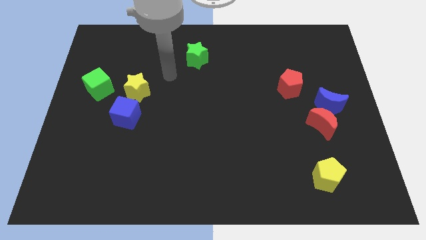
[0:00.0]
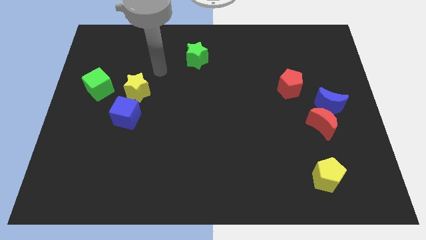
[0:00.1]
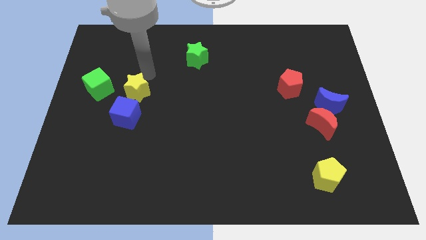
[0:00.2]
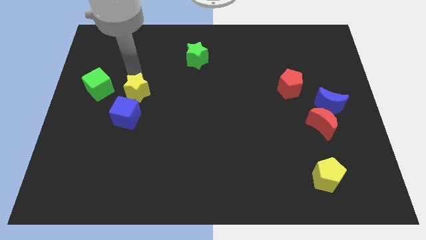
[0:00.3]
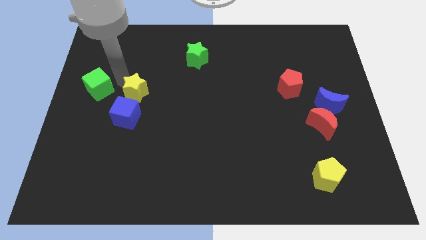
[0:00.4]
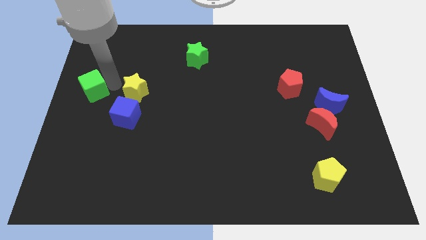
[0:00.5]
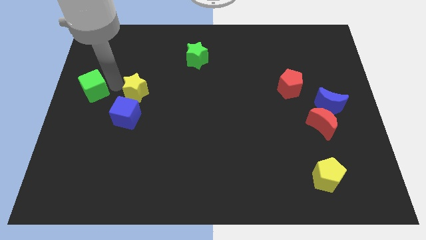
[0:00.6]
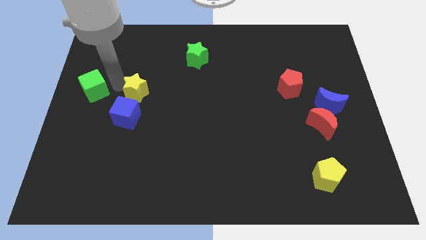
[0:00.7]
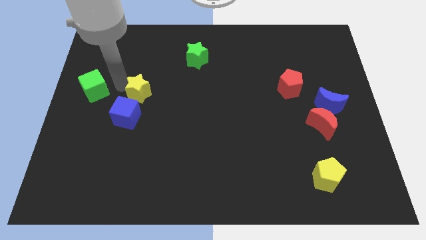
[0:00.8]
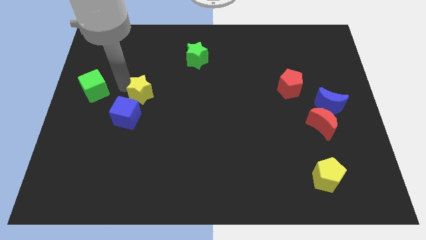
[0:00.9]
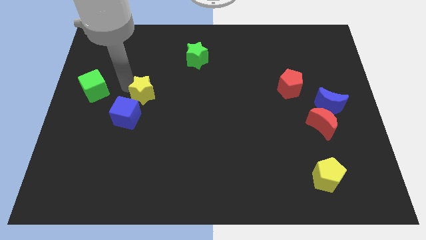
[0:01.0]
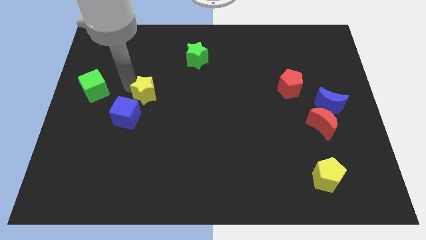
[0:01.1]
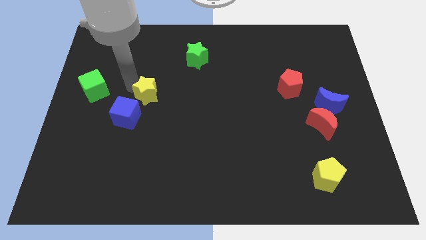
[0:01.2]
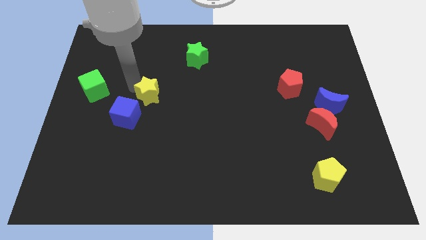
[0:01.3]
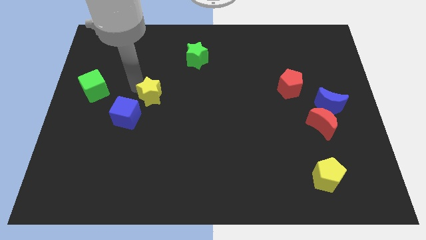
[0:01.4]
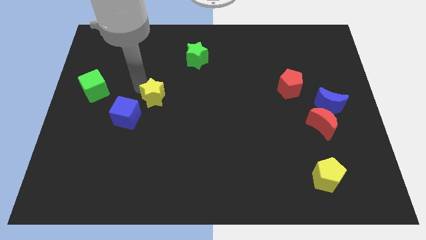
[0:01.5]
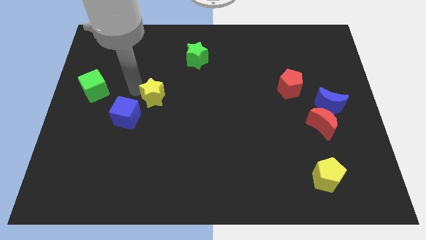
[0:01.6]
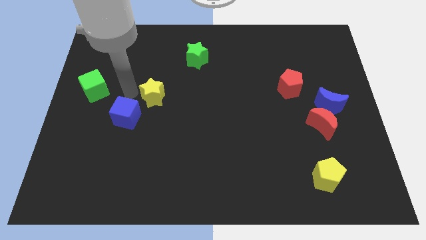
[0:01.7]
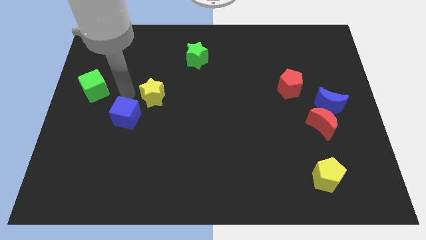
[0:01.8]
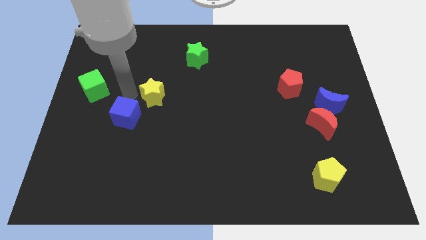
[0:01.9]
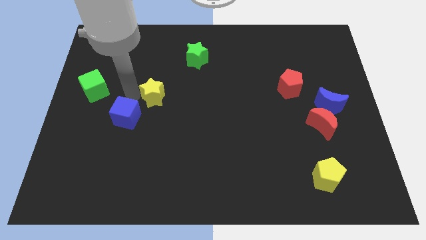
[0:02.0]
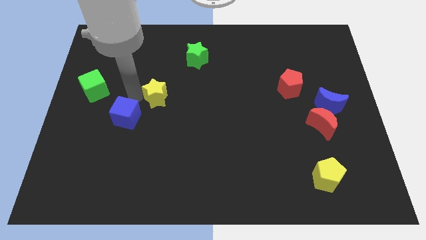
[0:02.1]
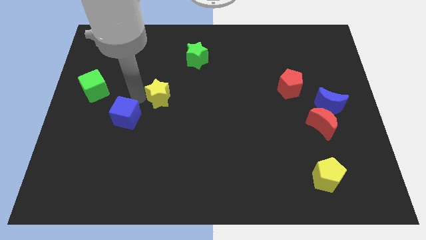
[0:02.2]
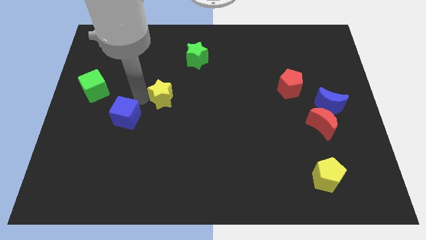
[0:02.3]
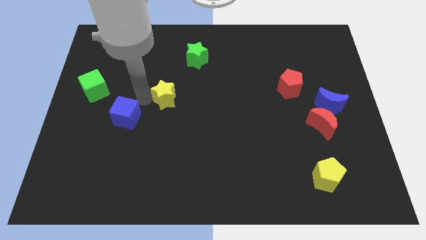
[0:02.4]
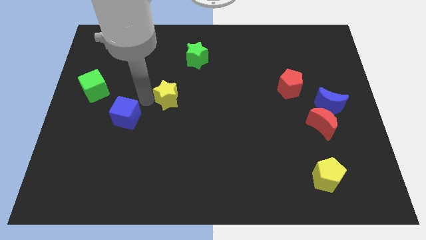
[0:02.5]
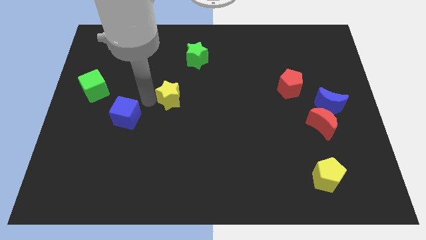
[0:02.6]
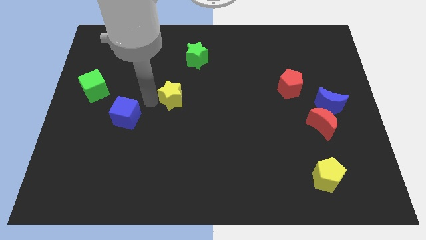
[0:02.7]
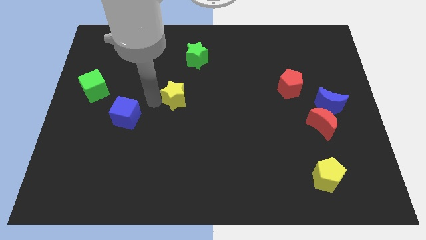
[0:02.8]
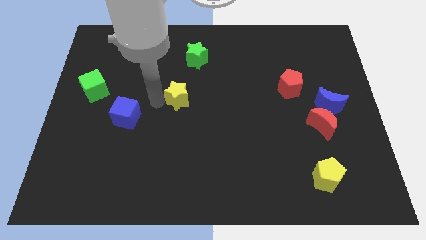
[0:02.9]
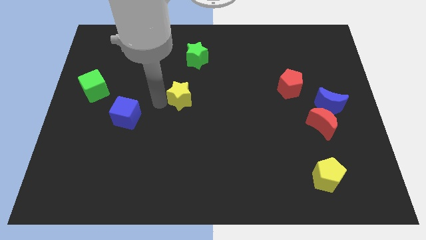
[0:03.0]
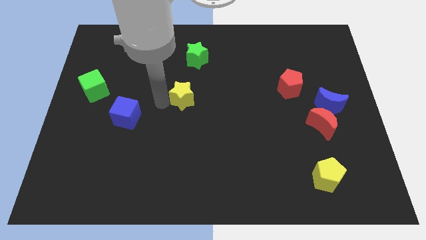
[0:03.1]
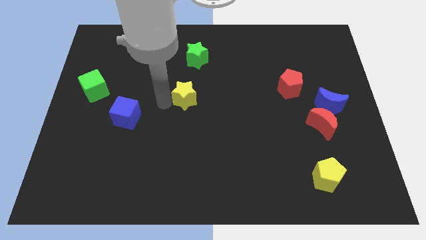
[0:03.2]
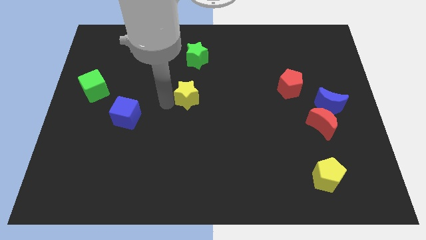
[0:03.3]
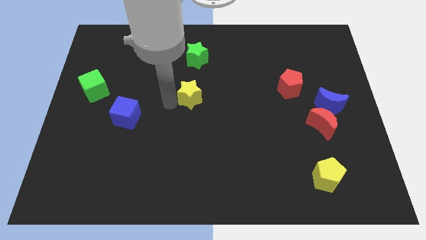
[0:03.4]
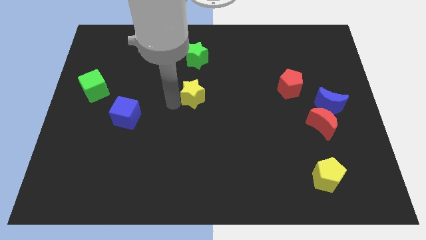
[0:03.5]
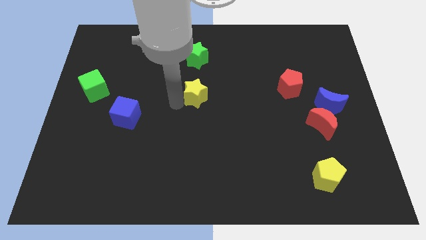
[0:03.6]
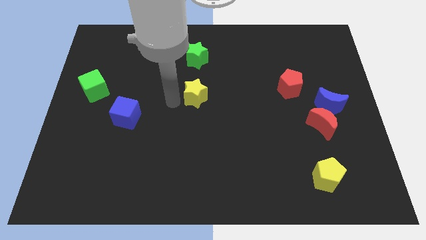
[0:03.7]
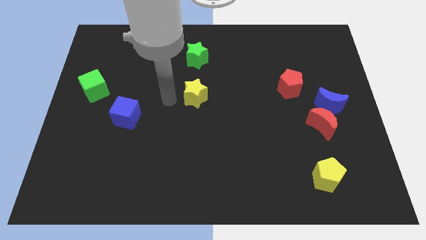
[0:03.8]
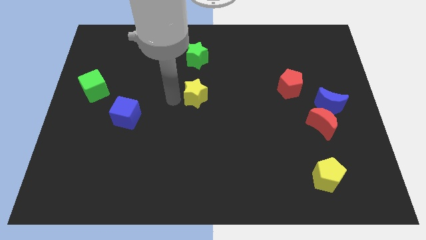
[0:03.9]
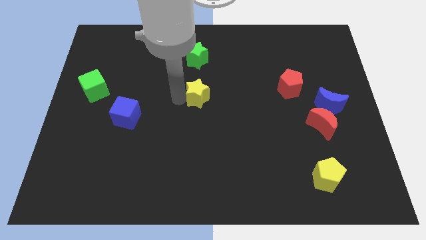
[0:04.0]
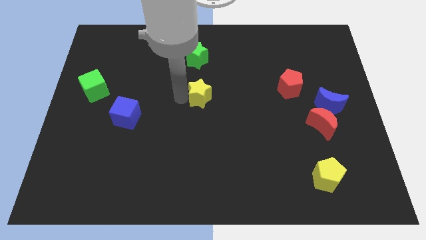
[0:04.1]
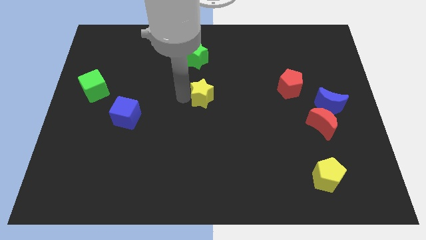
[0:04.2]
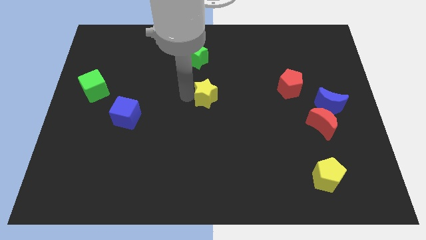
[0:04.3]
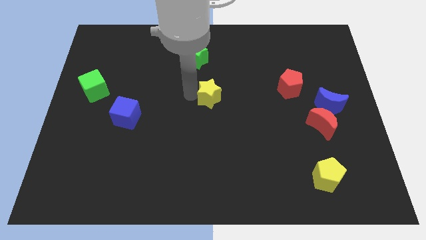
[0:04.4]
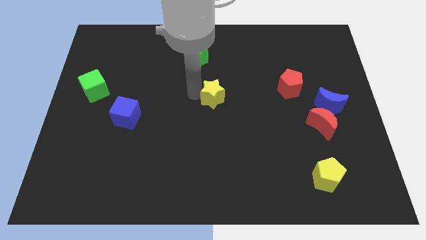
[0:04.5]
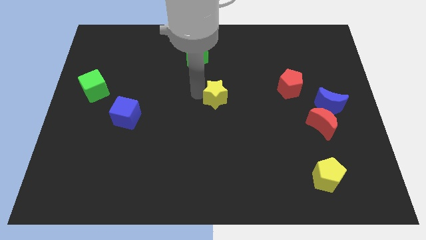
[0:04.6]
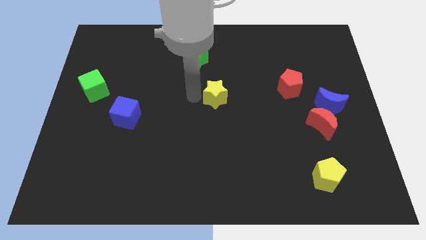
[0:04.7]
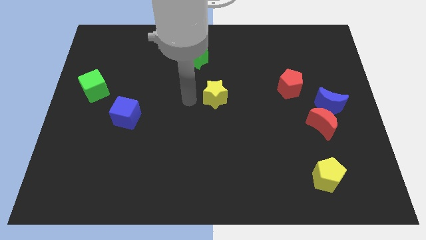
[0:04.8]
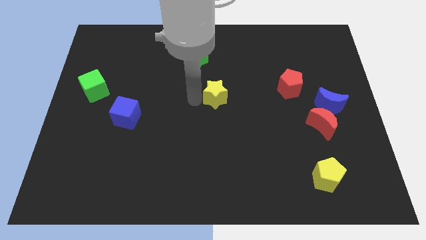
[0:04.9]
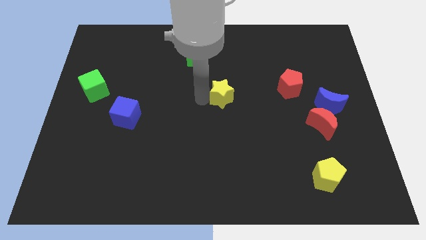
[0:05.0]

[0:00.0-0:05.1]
slide the yellow star right

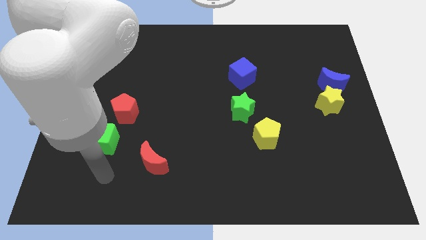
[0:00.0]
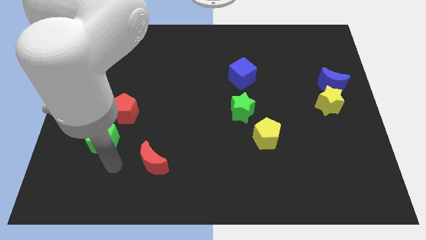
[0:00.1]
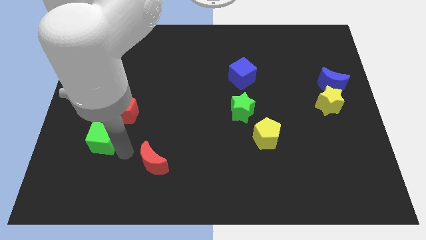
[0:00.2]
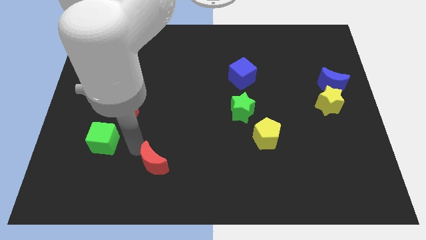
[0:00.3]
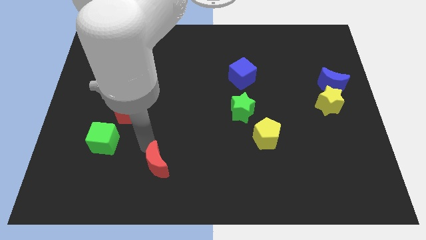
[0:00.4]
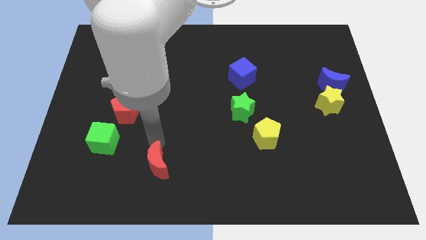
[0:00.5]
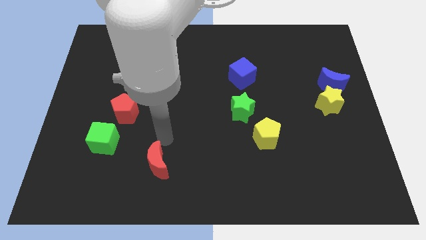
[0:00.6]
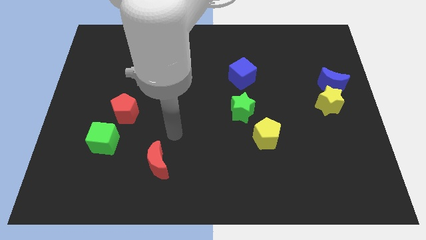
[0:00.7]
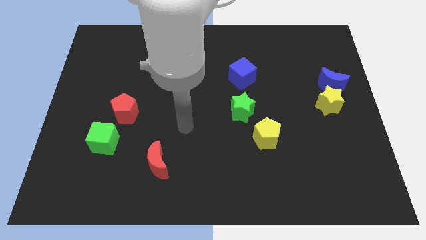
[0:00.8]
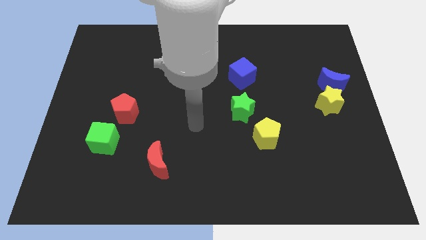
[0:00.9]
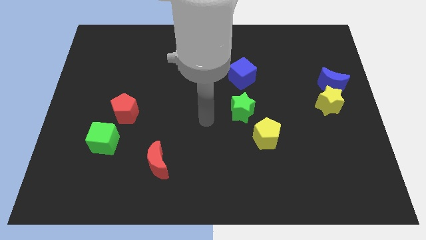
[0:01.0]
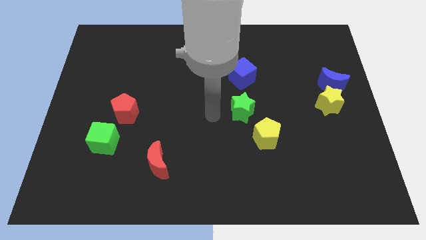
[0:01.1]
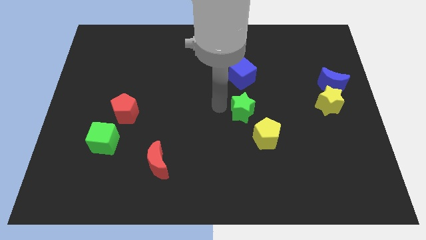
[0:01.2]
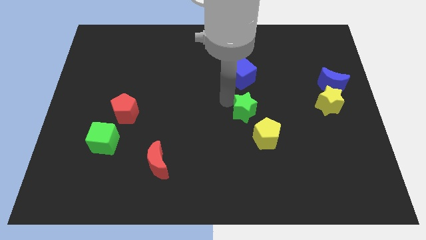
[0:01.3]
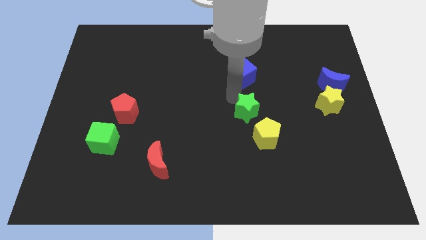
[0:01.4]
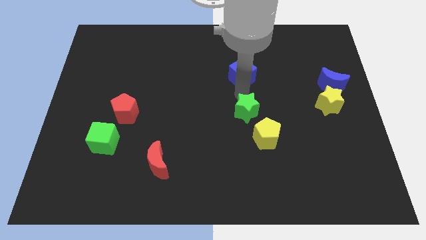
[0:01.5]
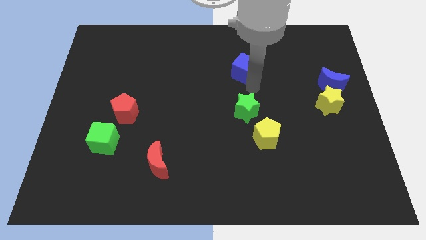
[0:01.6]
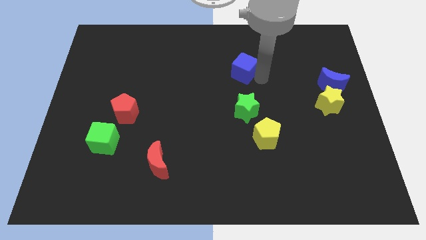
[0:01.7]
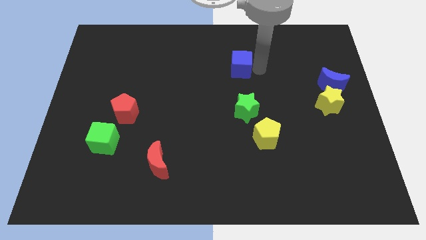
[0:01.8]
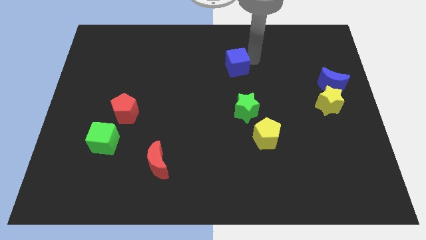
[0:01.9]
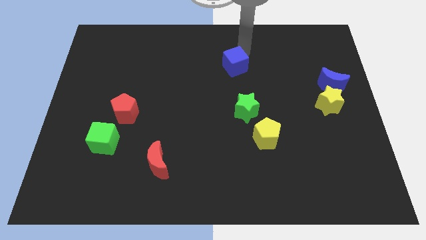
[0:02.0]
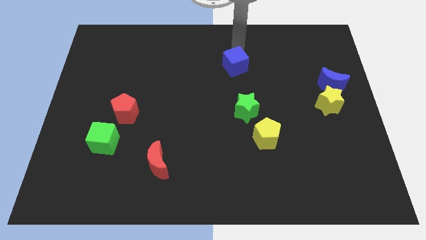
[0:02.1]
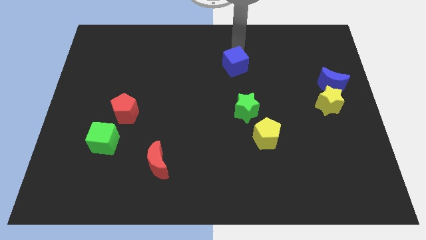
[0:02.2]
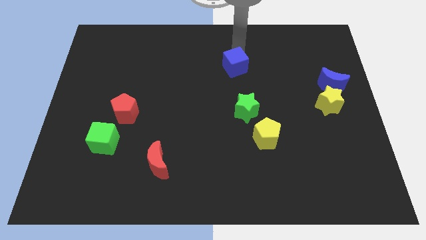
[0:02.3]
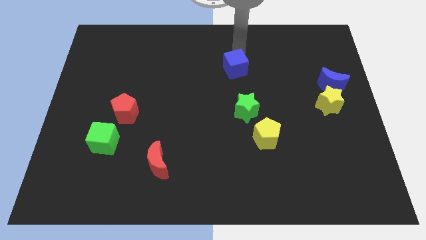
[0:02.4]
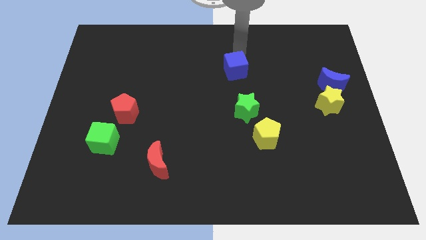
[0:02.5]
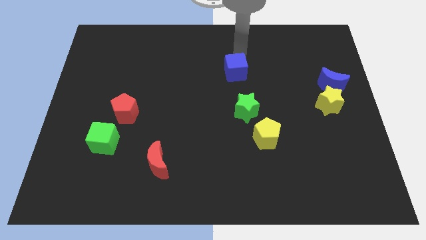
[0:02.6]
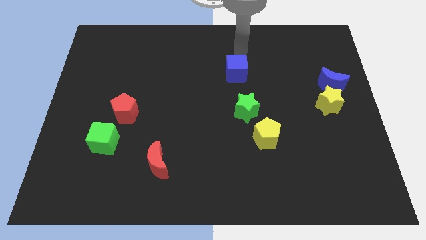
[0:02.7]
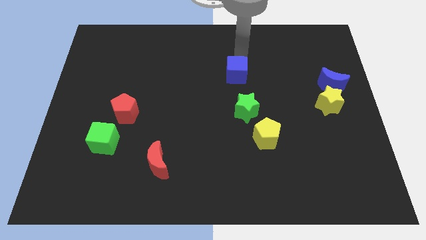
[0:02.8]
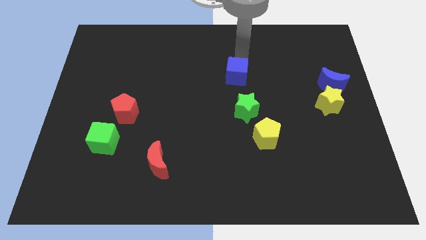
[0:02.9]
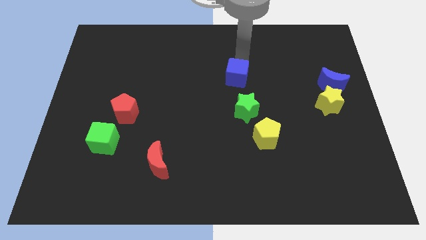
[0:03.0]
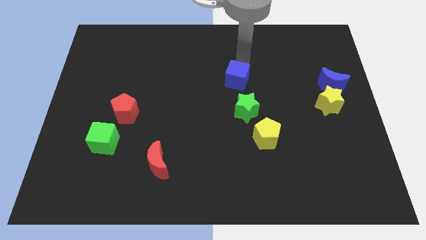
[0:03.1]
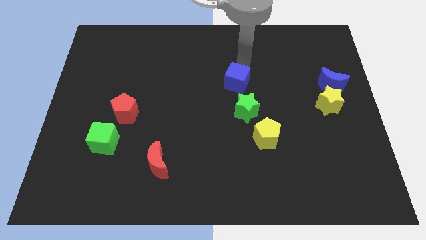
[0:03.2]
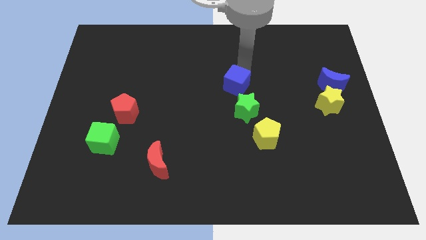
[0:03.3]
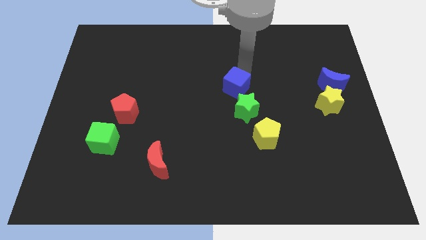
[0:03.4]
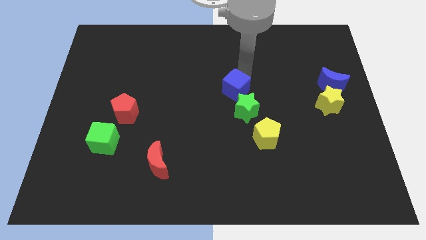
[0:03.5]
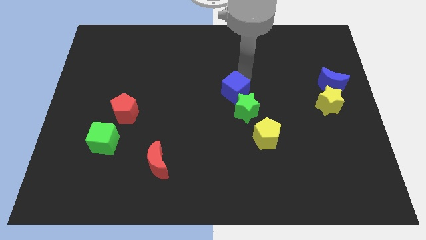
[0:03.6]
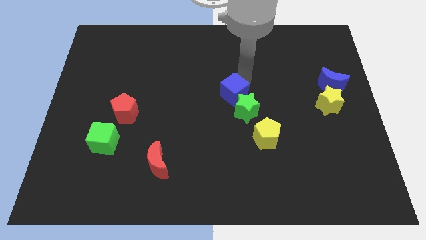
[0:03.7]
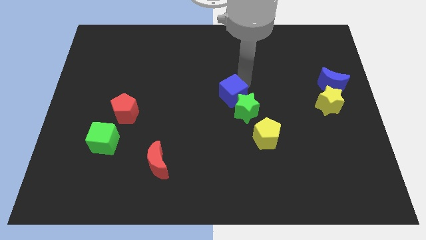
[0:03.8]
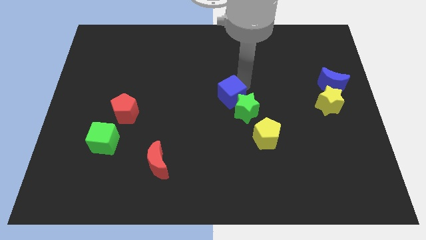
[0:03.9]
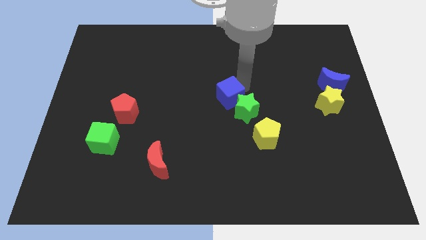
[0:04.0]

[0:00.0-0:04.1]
slide the blue cube downwards and then to the left slightly
